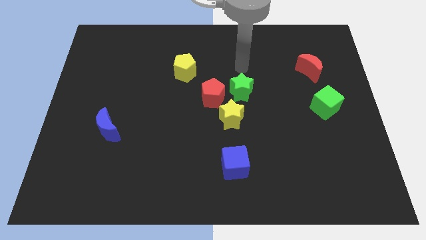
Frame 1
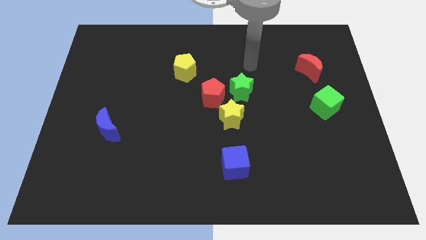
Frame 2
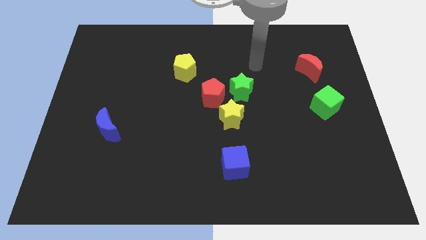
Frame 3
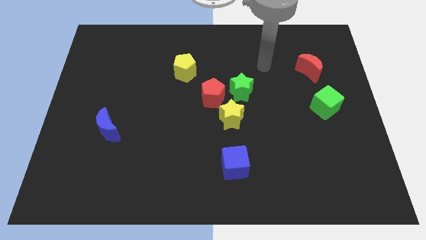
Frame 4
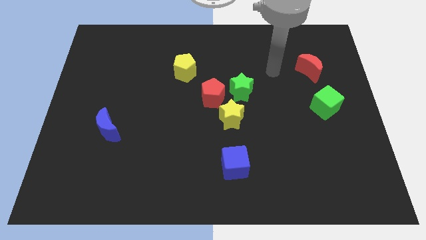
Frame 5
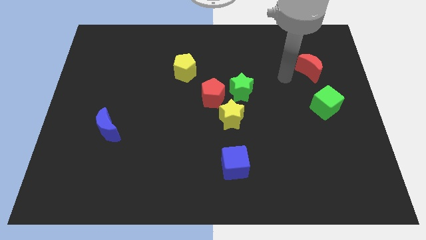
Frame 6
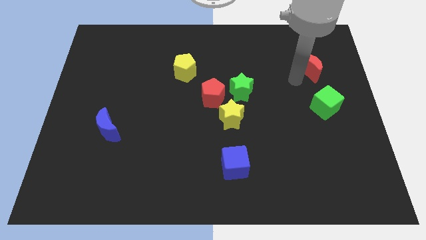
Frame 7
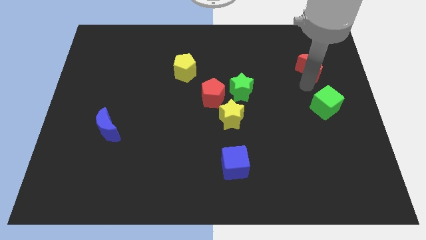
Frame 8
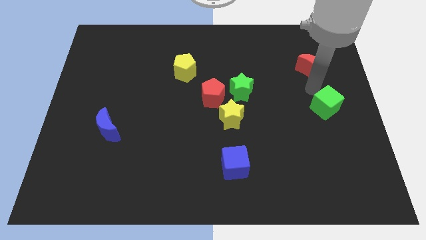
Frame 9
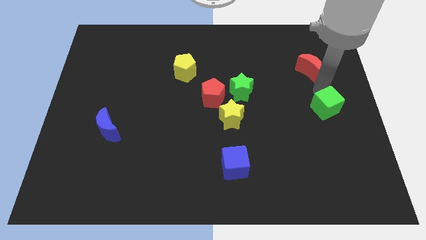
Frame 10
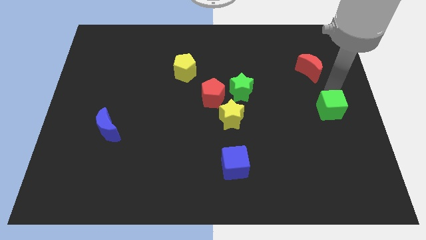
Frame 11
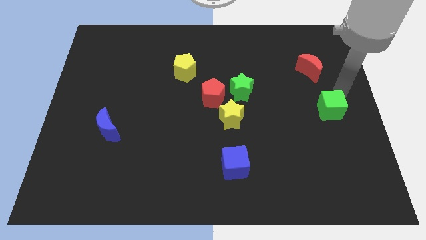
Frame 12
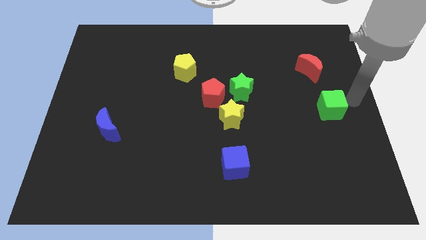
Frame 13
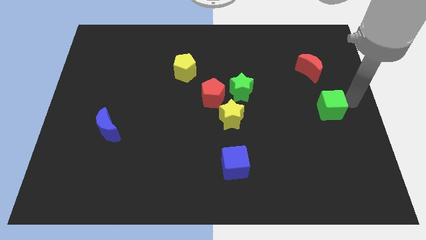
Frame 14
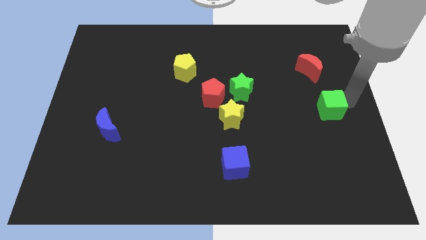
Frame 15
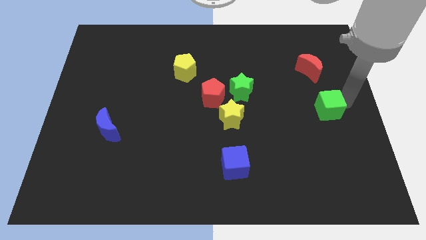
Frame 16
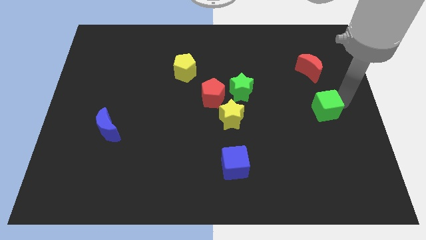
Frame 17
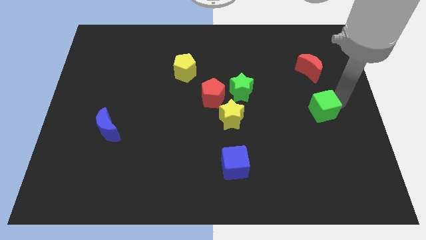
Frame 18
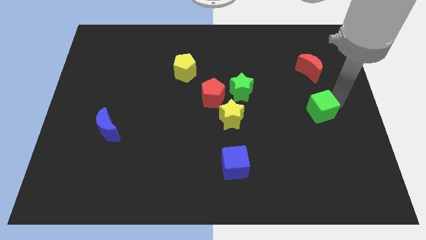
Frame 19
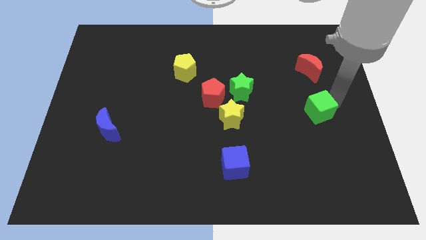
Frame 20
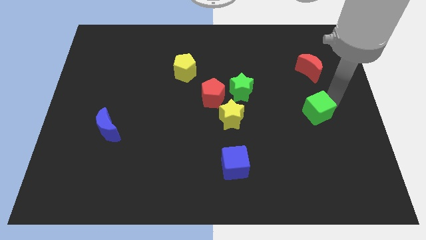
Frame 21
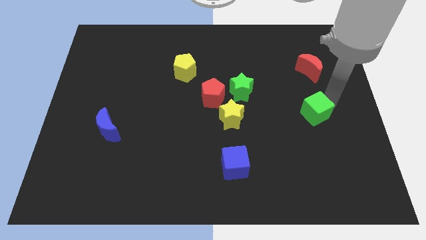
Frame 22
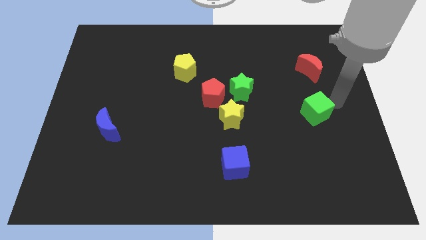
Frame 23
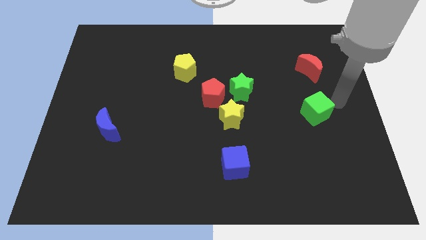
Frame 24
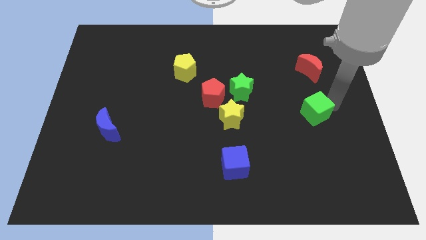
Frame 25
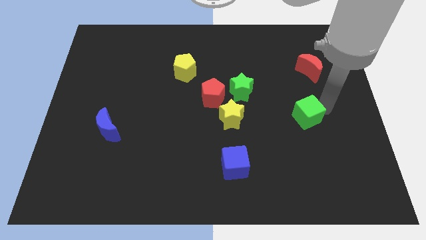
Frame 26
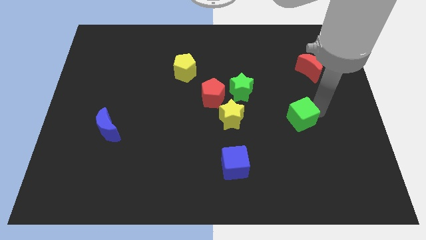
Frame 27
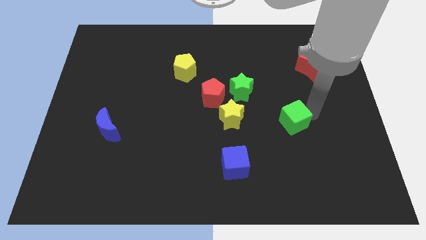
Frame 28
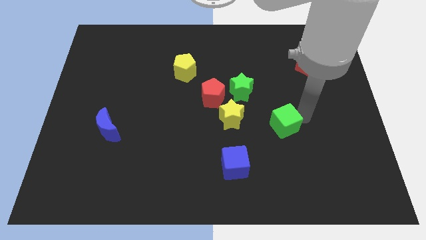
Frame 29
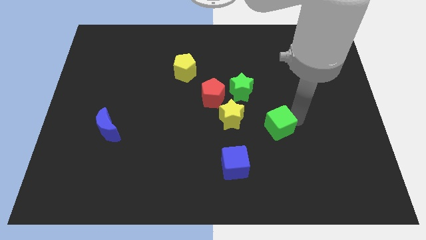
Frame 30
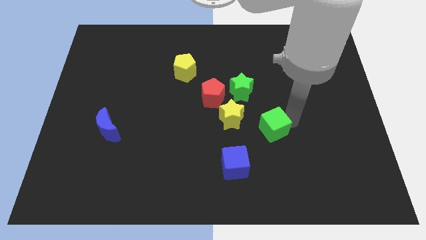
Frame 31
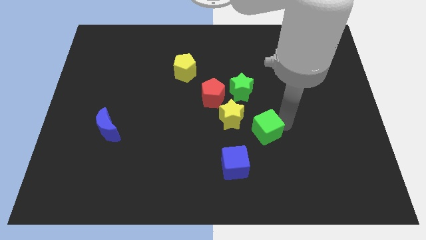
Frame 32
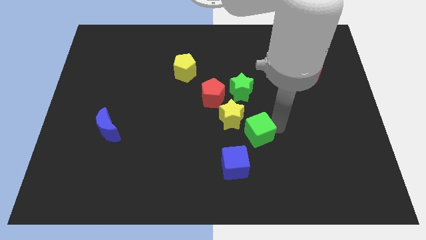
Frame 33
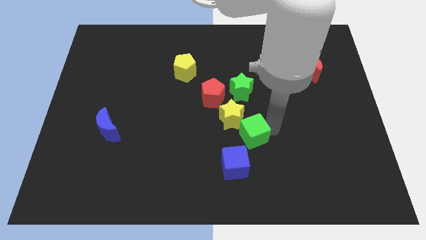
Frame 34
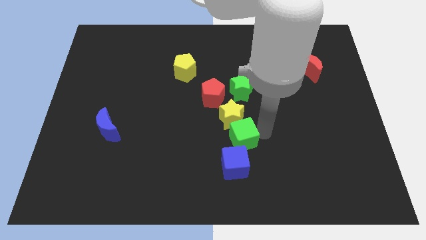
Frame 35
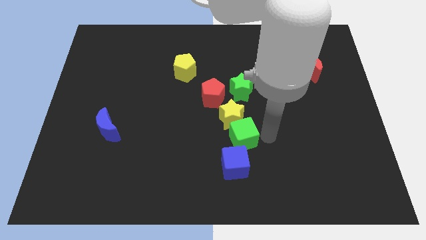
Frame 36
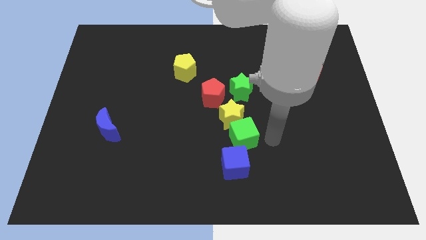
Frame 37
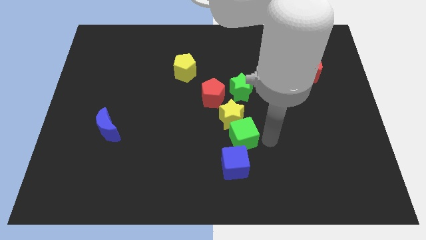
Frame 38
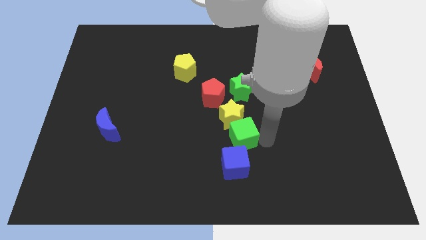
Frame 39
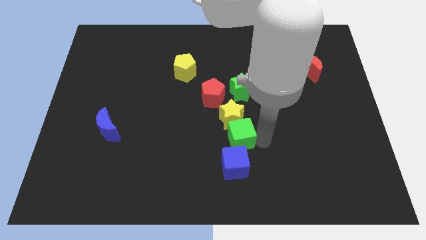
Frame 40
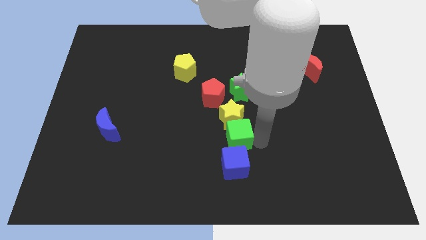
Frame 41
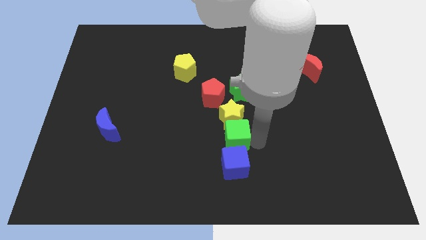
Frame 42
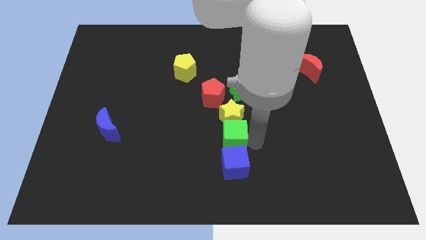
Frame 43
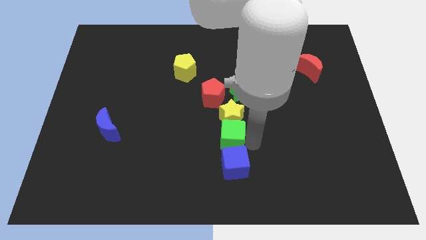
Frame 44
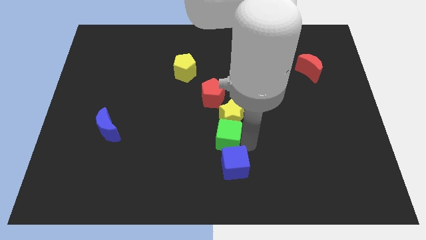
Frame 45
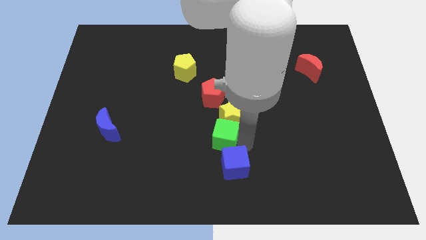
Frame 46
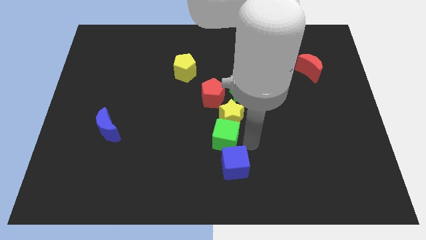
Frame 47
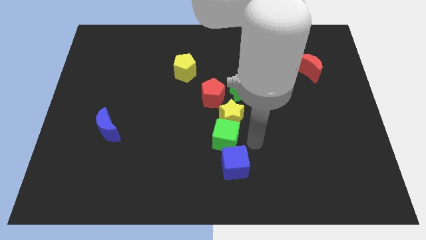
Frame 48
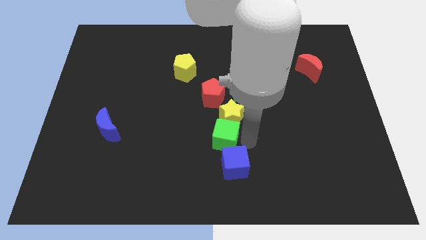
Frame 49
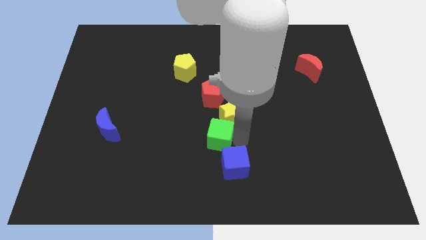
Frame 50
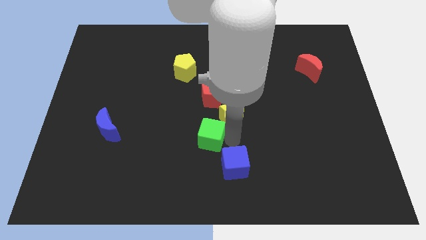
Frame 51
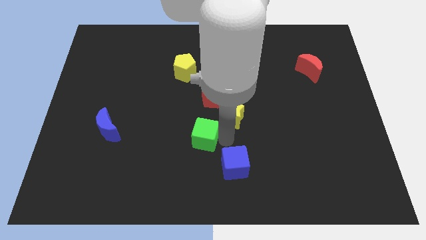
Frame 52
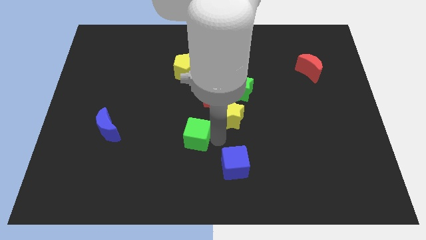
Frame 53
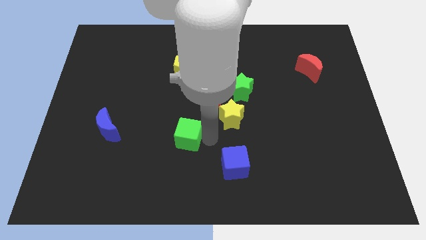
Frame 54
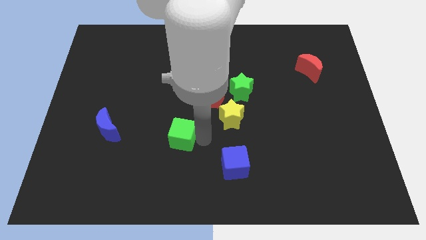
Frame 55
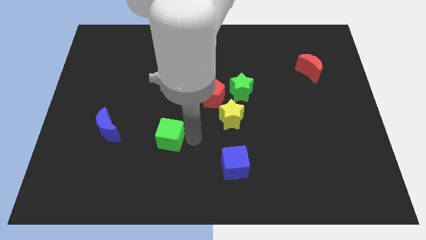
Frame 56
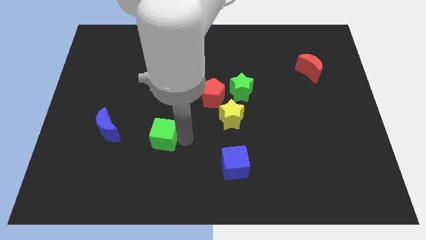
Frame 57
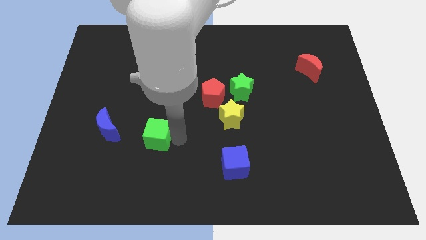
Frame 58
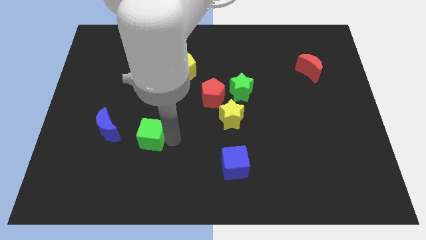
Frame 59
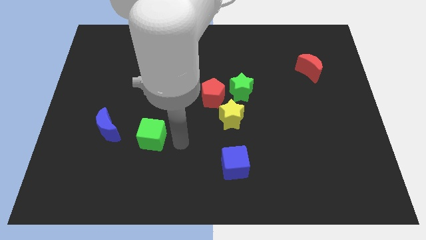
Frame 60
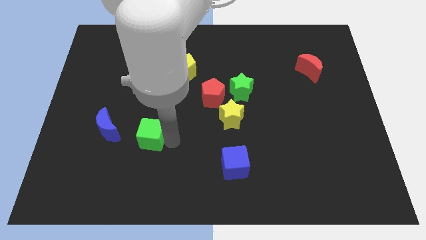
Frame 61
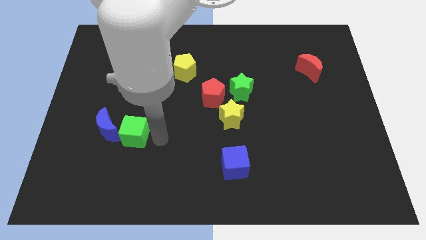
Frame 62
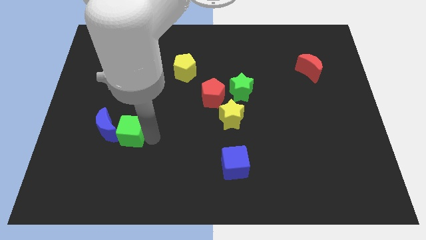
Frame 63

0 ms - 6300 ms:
push the green cube to the blue moon
